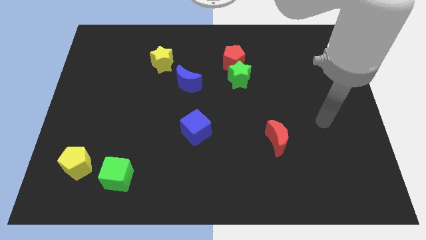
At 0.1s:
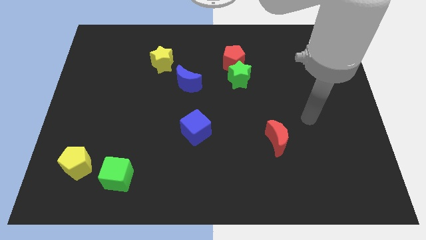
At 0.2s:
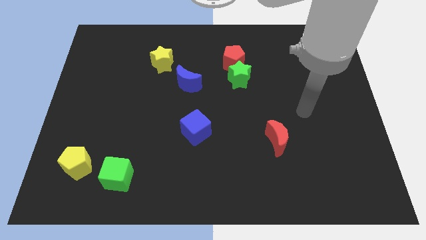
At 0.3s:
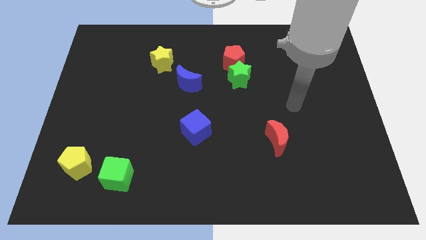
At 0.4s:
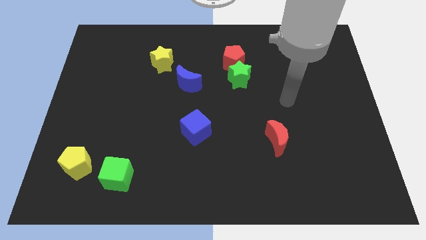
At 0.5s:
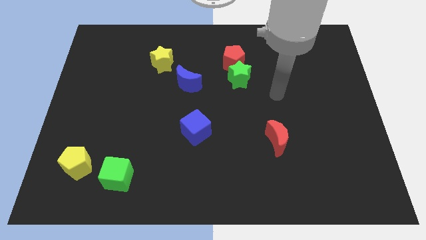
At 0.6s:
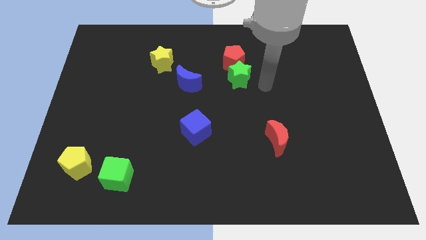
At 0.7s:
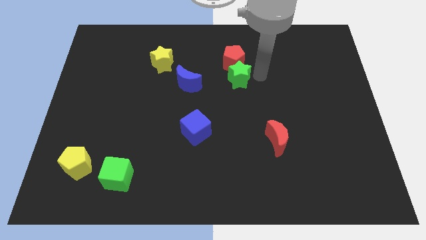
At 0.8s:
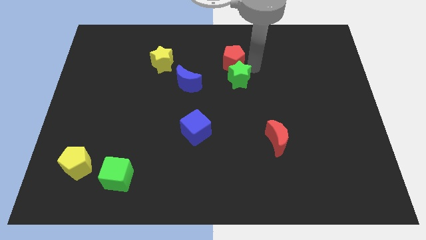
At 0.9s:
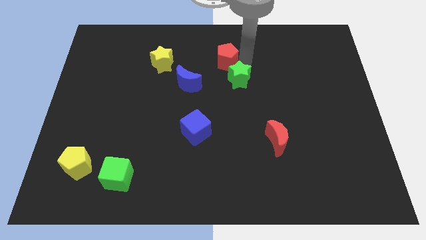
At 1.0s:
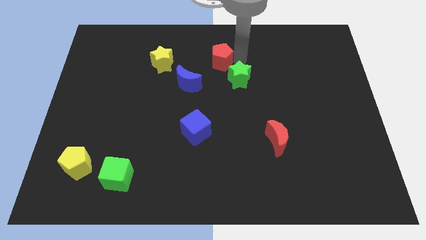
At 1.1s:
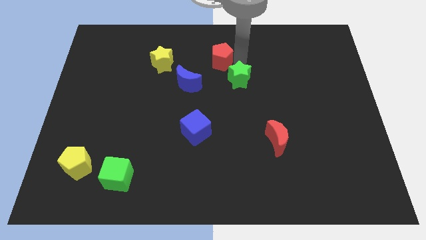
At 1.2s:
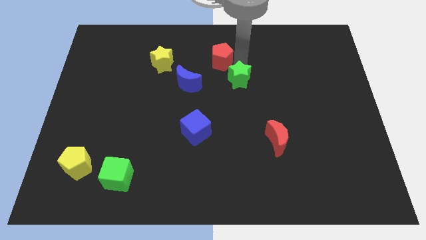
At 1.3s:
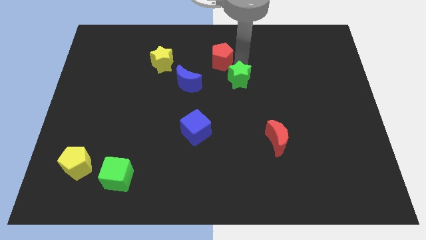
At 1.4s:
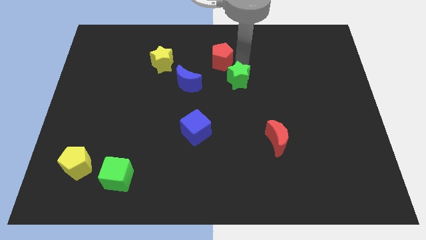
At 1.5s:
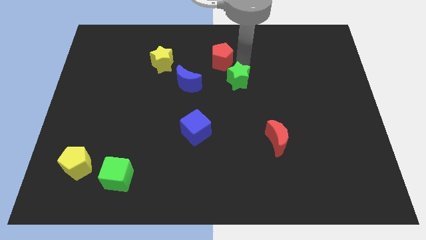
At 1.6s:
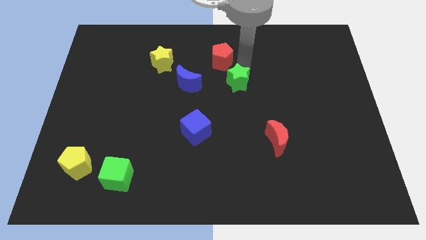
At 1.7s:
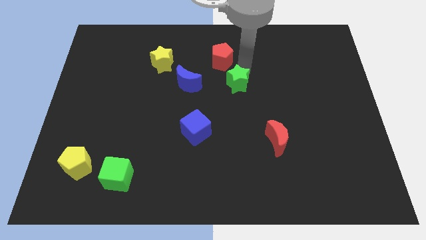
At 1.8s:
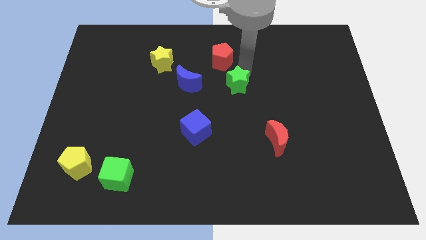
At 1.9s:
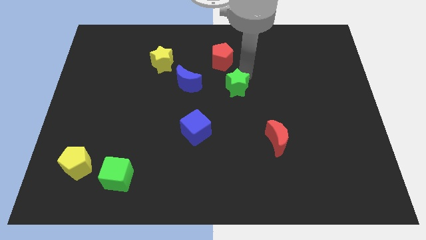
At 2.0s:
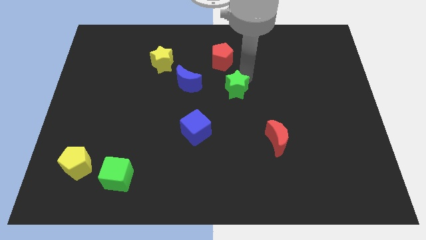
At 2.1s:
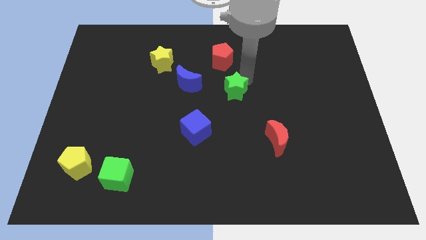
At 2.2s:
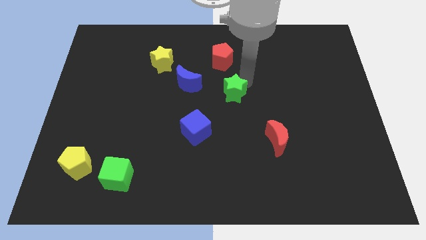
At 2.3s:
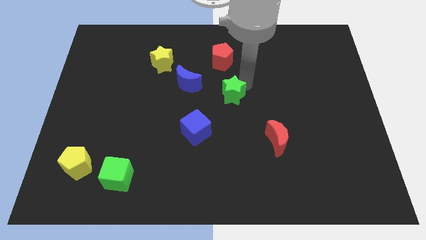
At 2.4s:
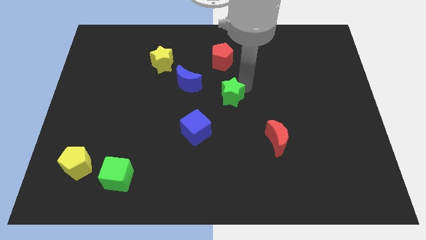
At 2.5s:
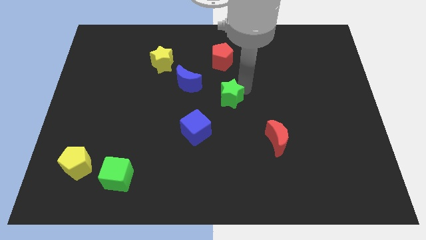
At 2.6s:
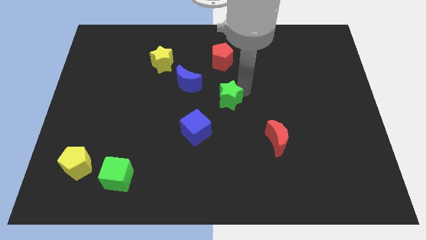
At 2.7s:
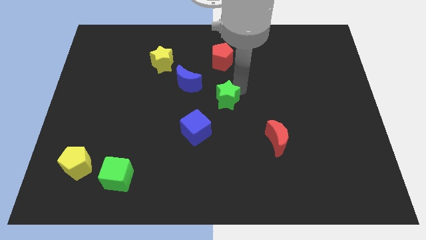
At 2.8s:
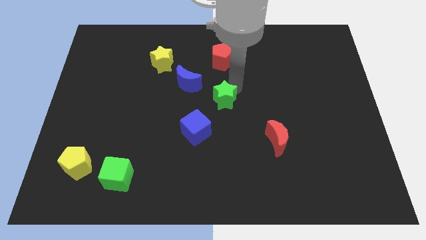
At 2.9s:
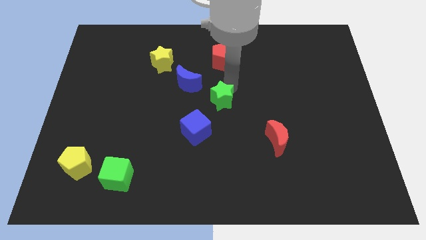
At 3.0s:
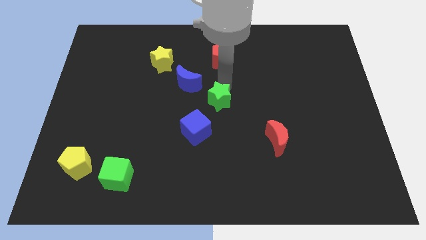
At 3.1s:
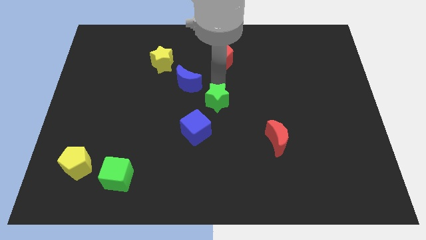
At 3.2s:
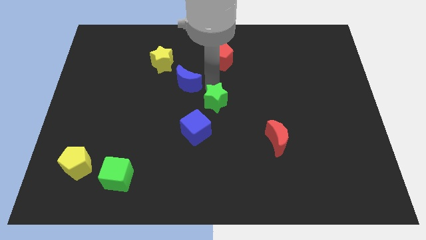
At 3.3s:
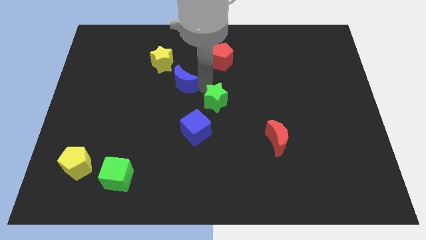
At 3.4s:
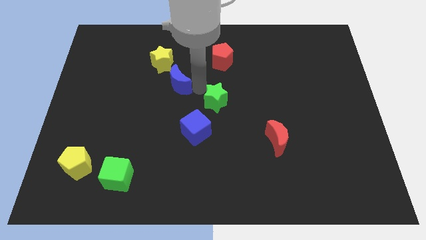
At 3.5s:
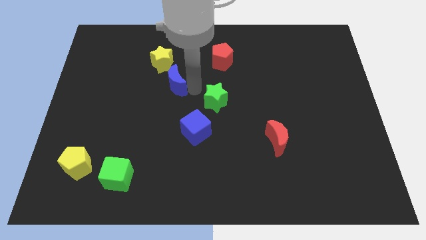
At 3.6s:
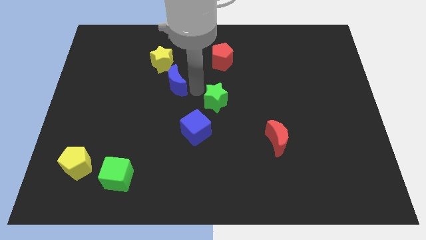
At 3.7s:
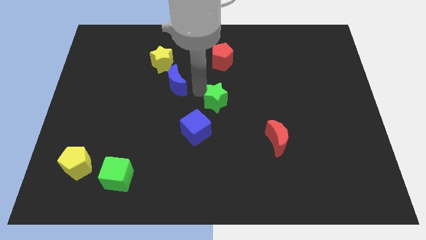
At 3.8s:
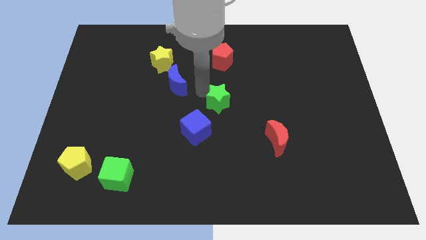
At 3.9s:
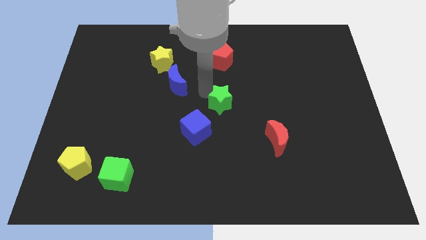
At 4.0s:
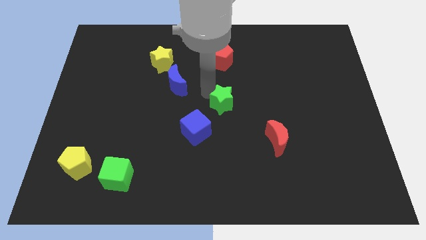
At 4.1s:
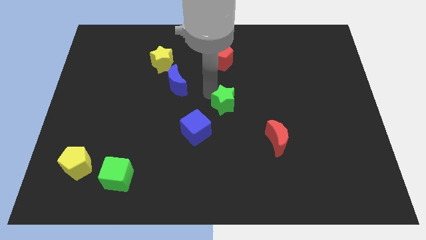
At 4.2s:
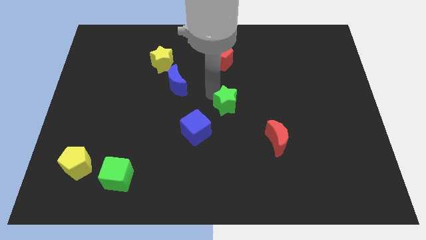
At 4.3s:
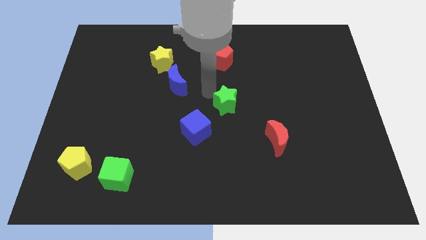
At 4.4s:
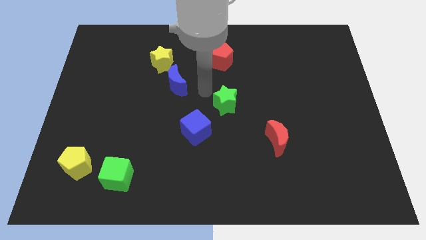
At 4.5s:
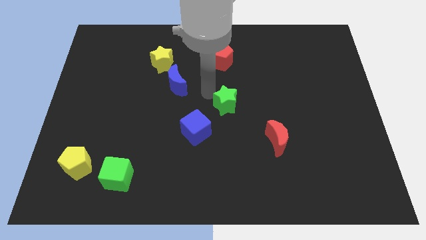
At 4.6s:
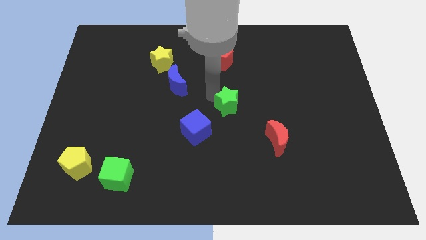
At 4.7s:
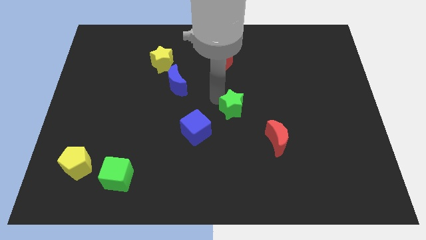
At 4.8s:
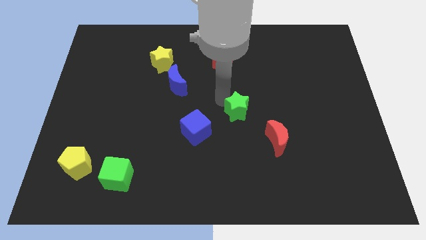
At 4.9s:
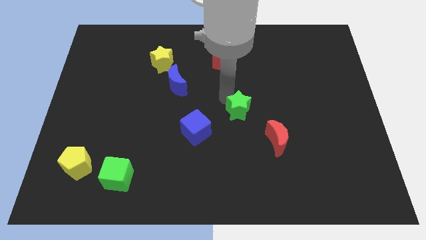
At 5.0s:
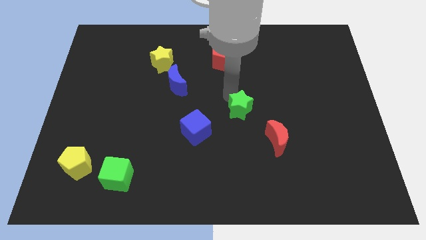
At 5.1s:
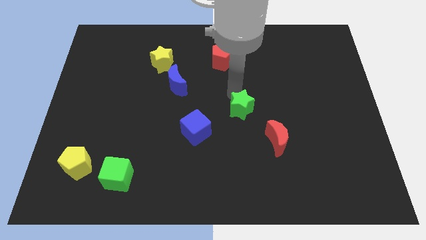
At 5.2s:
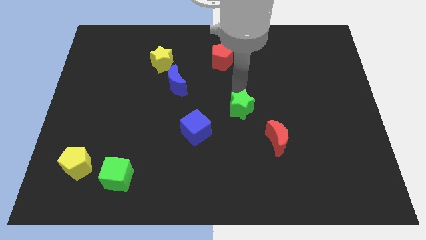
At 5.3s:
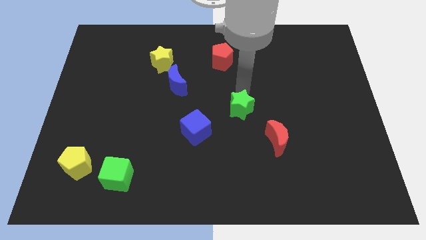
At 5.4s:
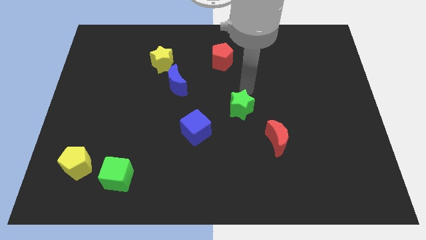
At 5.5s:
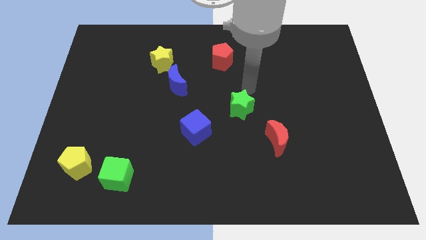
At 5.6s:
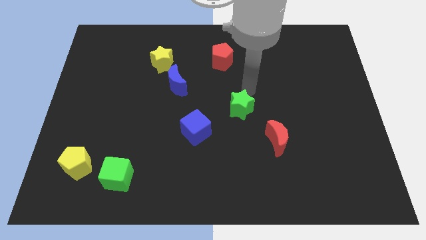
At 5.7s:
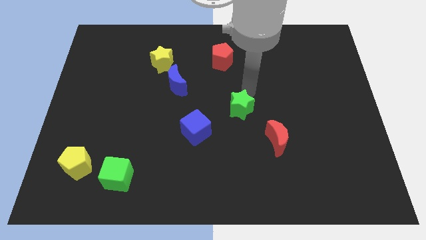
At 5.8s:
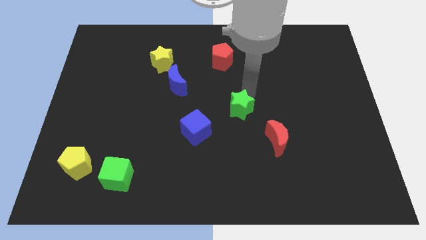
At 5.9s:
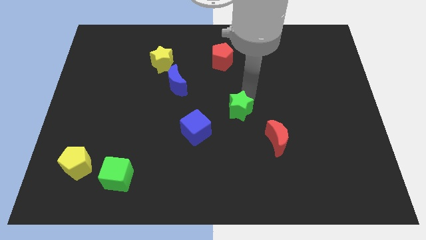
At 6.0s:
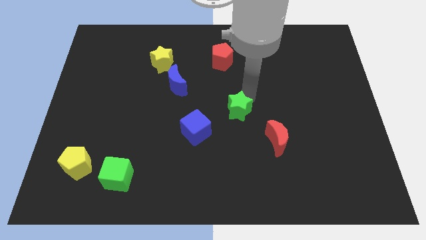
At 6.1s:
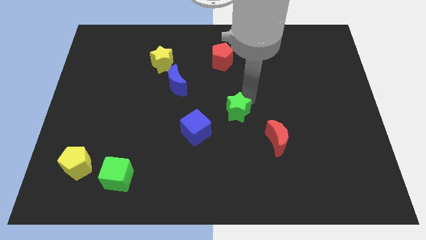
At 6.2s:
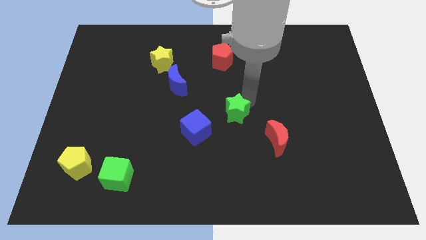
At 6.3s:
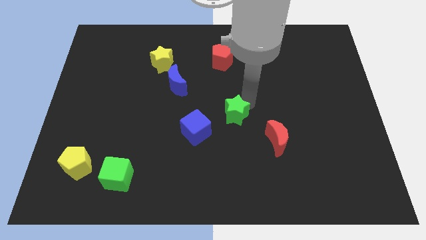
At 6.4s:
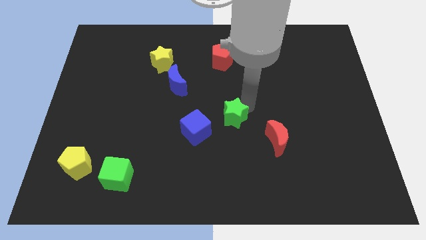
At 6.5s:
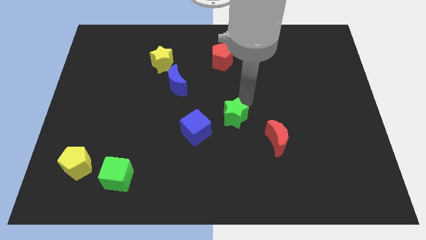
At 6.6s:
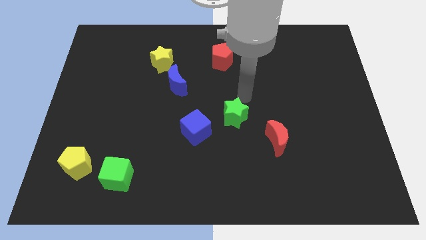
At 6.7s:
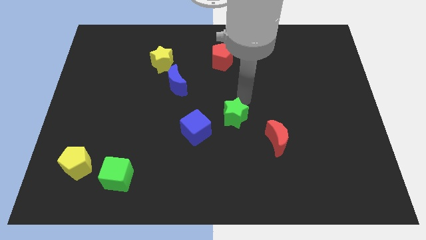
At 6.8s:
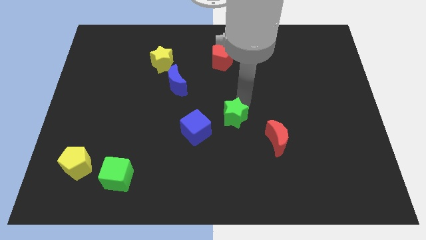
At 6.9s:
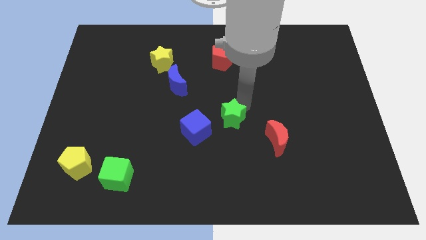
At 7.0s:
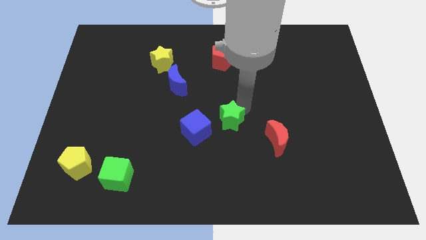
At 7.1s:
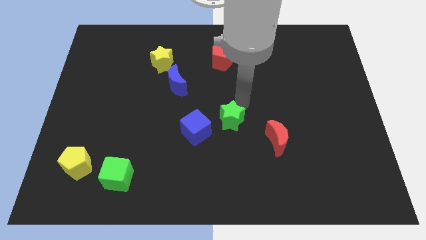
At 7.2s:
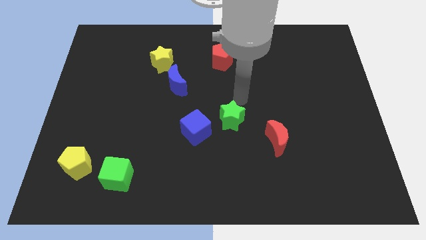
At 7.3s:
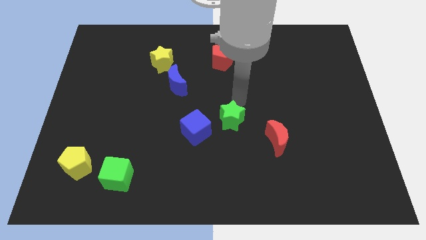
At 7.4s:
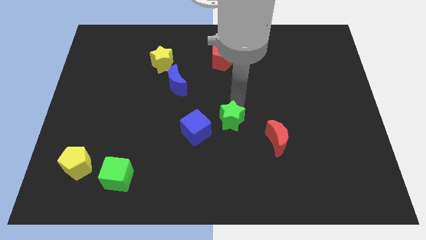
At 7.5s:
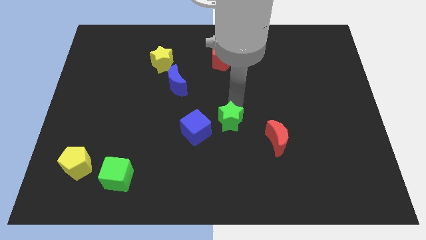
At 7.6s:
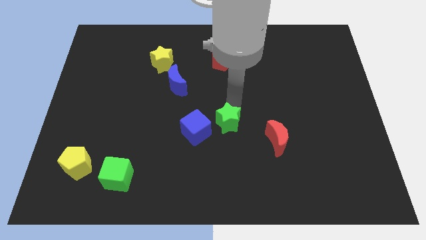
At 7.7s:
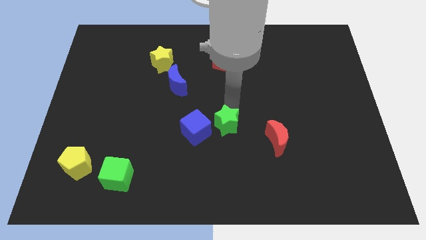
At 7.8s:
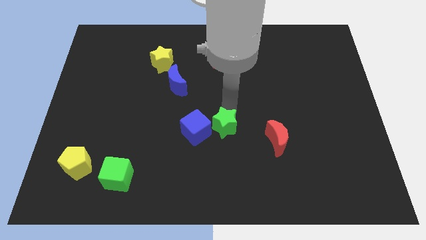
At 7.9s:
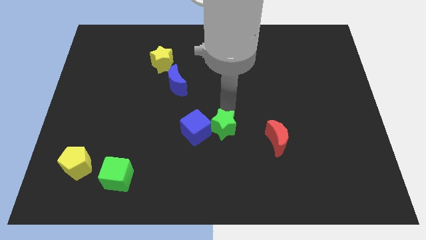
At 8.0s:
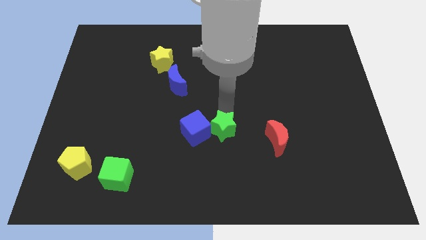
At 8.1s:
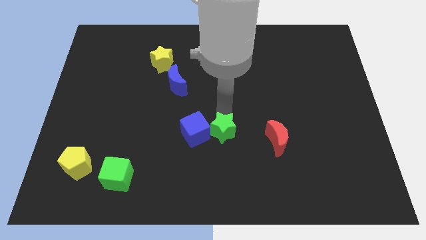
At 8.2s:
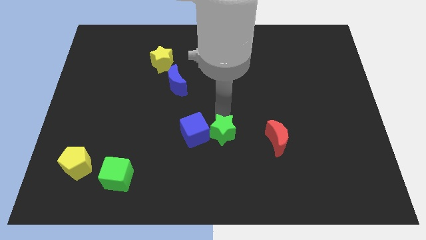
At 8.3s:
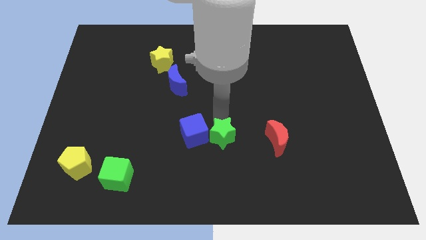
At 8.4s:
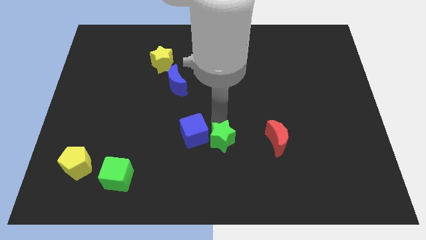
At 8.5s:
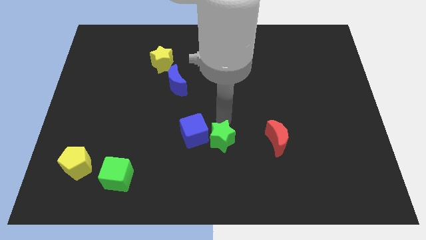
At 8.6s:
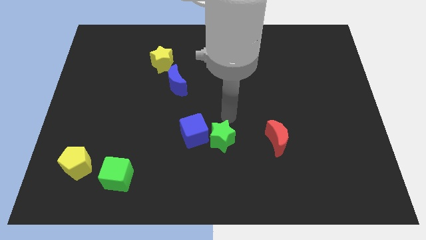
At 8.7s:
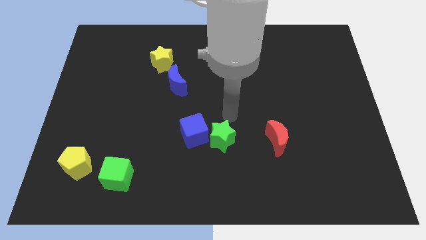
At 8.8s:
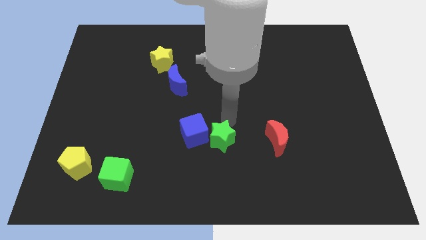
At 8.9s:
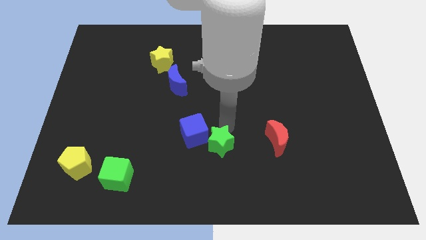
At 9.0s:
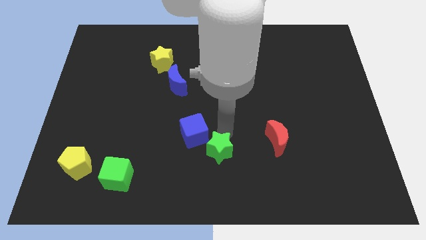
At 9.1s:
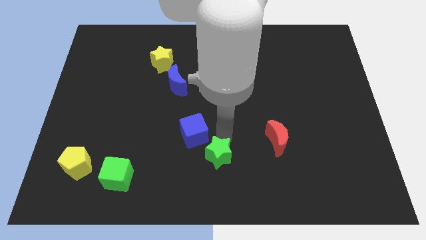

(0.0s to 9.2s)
move the green star to the bottom side
